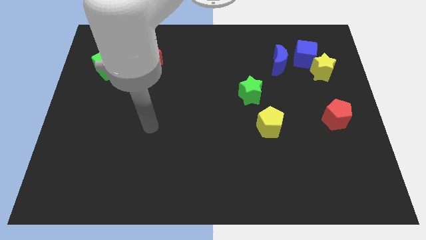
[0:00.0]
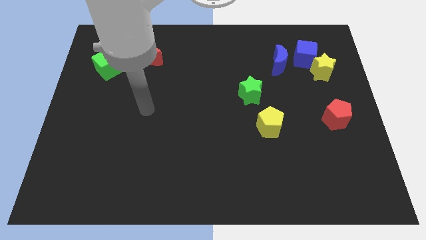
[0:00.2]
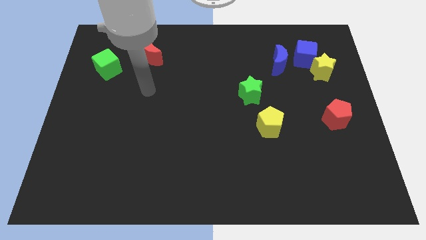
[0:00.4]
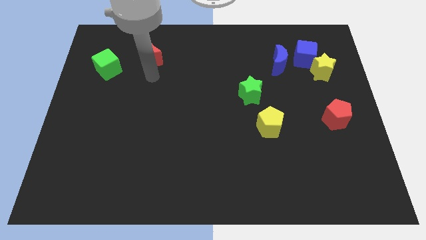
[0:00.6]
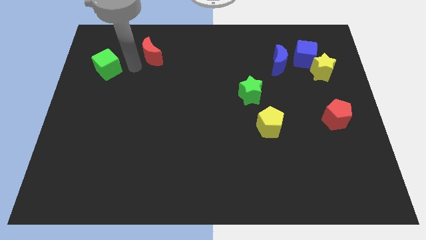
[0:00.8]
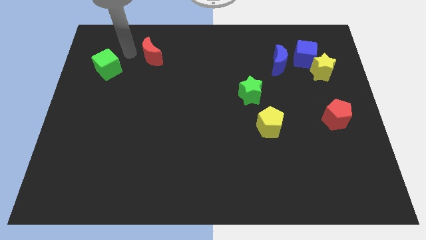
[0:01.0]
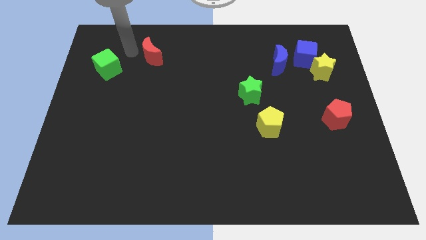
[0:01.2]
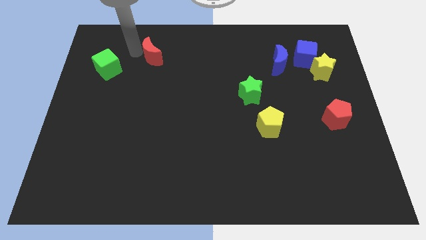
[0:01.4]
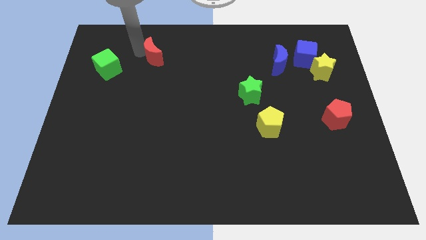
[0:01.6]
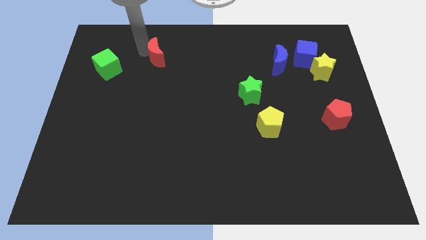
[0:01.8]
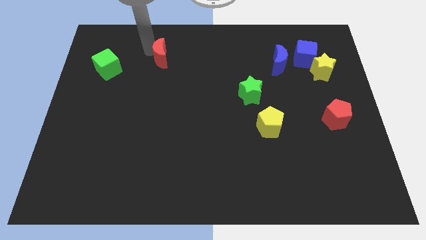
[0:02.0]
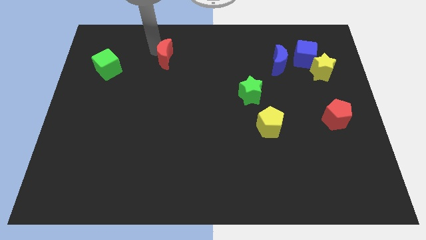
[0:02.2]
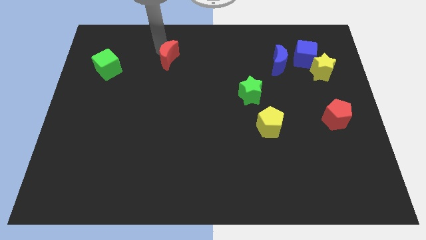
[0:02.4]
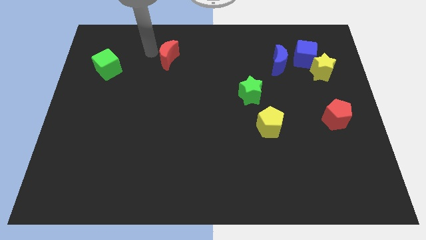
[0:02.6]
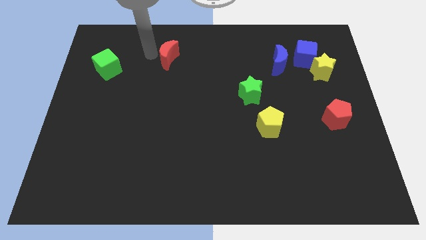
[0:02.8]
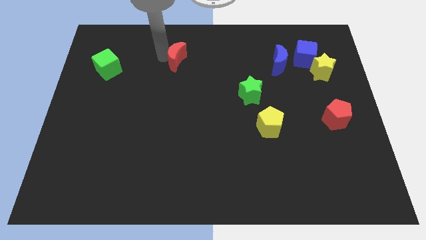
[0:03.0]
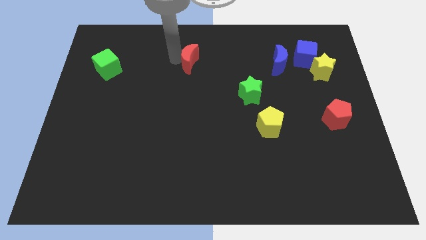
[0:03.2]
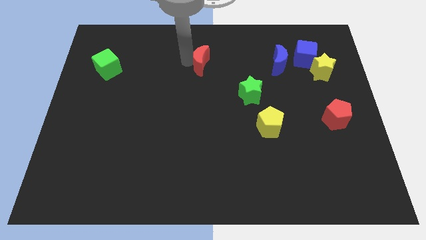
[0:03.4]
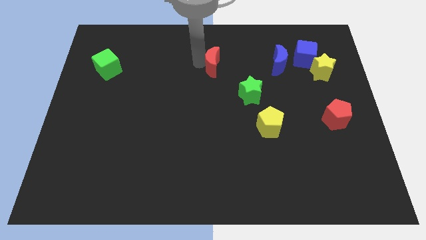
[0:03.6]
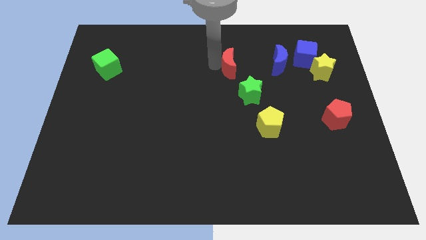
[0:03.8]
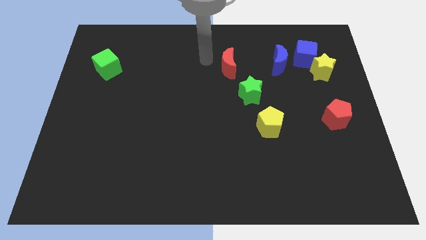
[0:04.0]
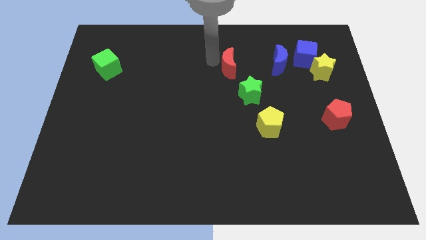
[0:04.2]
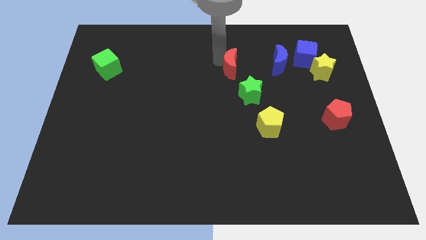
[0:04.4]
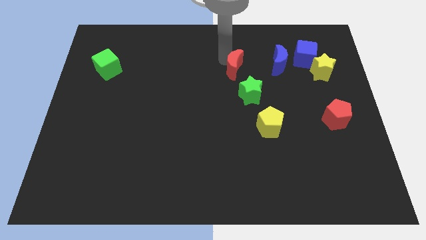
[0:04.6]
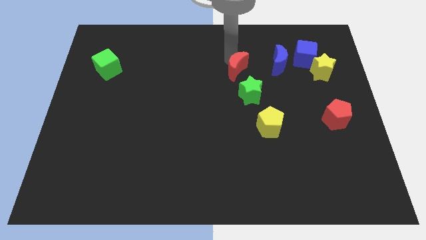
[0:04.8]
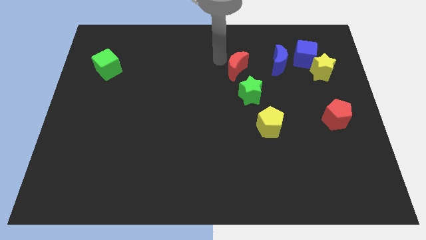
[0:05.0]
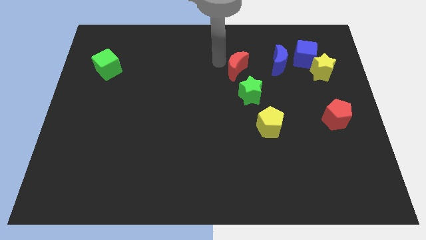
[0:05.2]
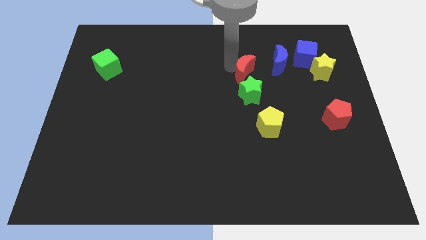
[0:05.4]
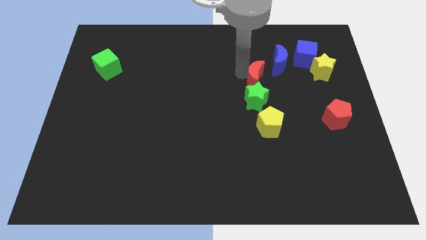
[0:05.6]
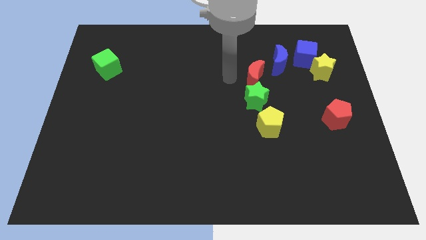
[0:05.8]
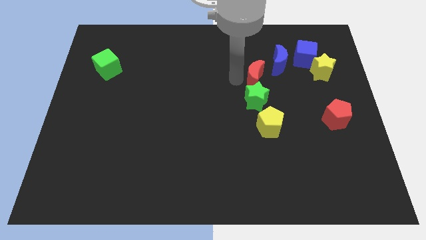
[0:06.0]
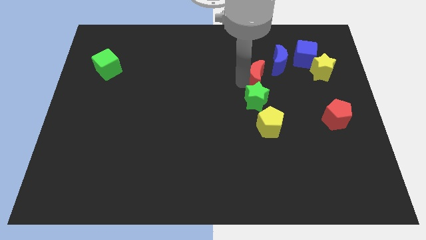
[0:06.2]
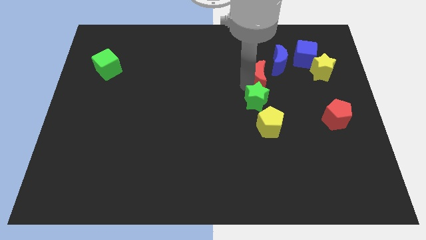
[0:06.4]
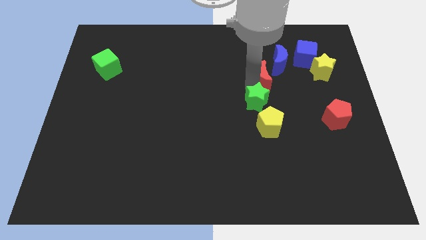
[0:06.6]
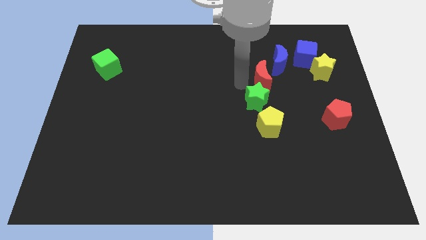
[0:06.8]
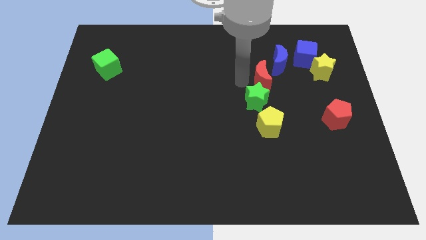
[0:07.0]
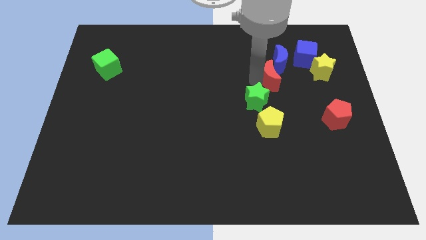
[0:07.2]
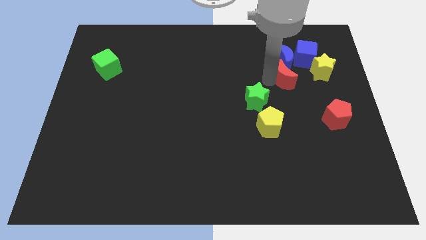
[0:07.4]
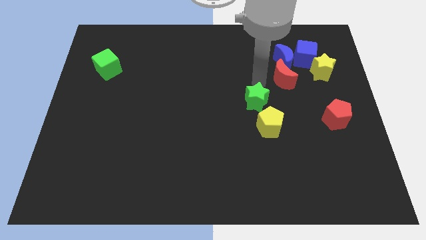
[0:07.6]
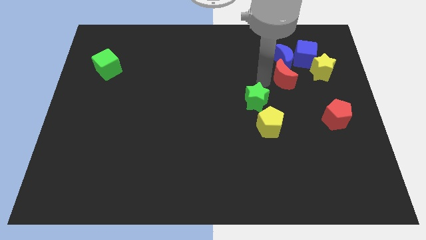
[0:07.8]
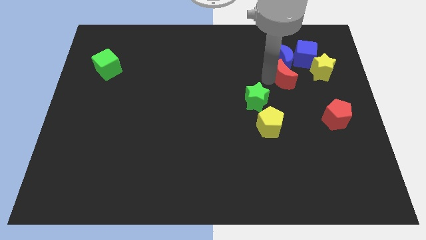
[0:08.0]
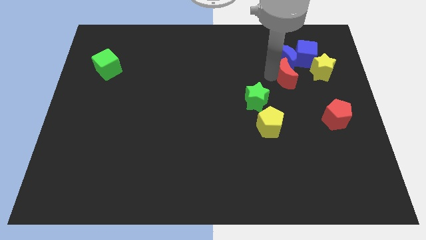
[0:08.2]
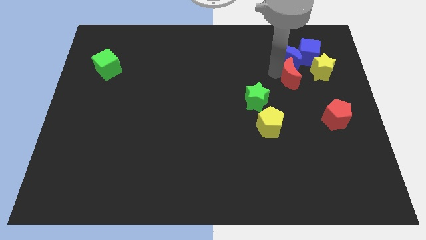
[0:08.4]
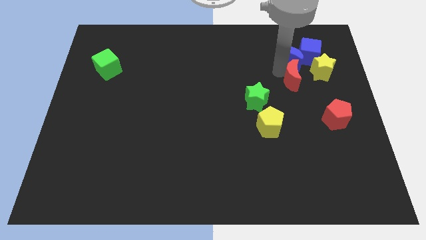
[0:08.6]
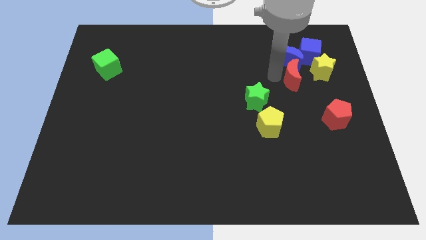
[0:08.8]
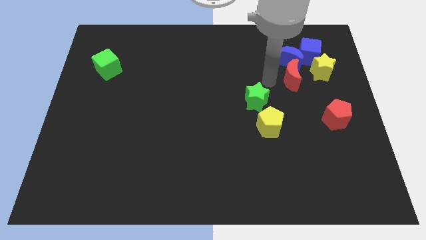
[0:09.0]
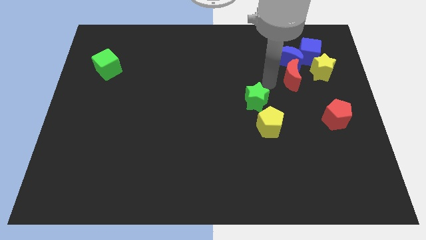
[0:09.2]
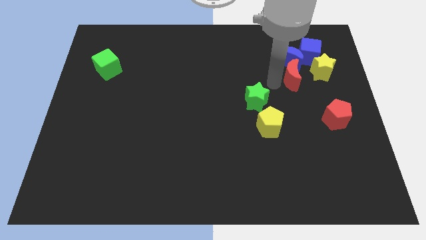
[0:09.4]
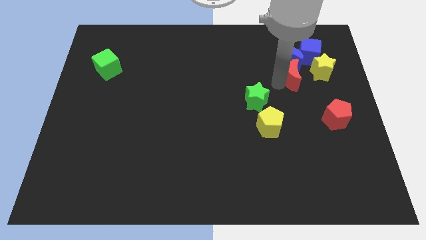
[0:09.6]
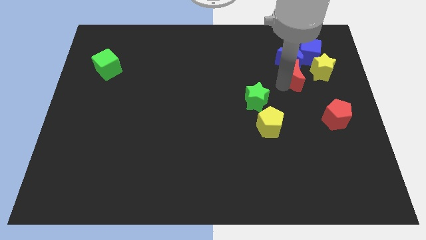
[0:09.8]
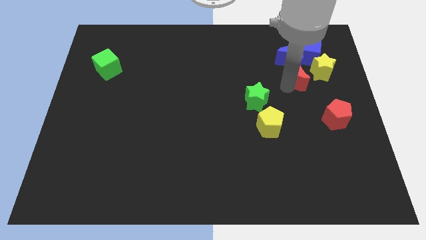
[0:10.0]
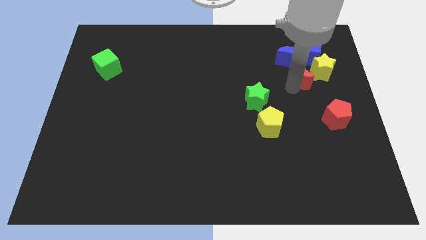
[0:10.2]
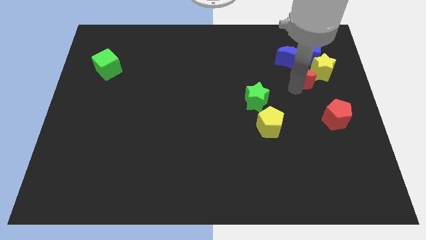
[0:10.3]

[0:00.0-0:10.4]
move the red moon next to the yellow star

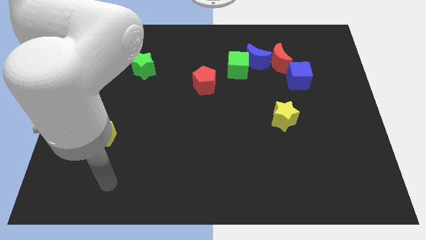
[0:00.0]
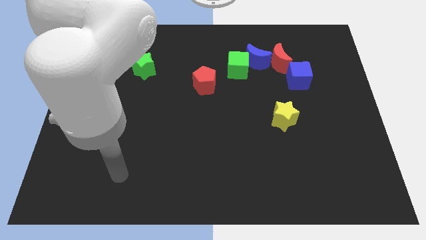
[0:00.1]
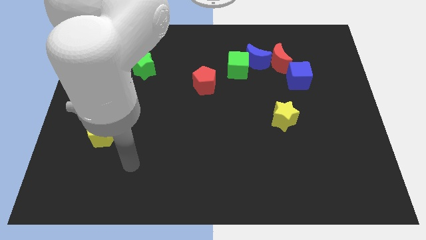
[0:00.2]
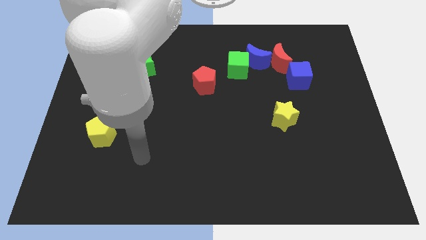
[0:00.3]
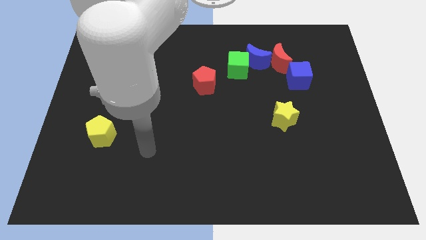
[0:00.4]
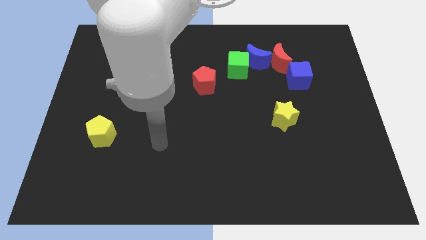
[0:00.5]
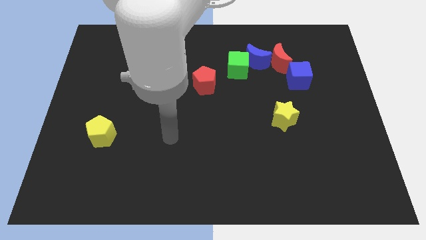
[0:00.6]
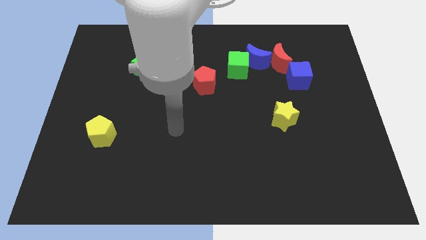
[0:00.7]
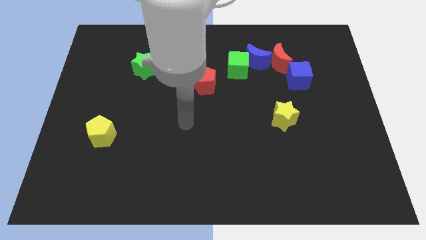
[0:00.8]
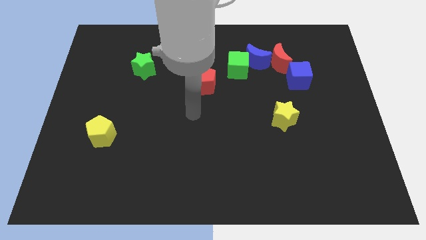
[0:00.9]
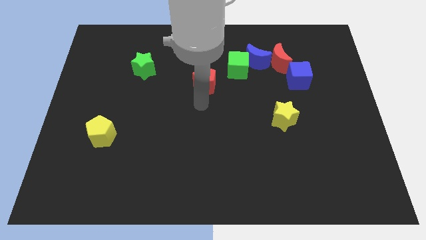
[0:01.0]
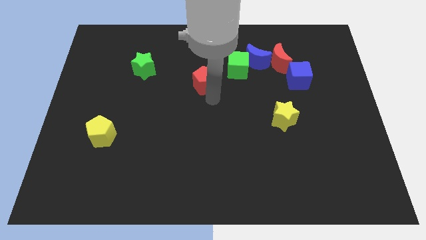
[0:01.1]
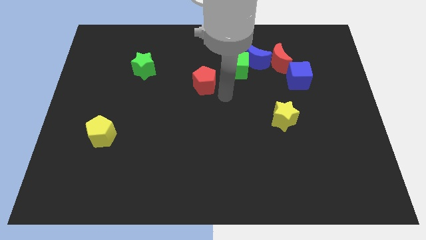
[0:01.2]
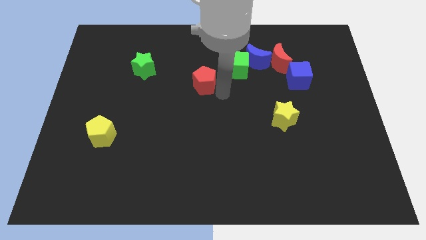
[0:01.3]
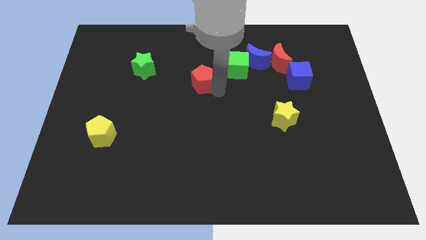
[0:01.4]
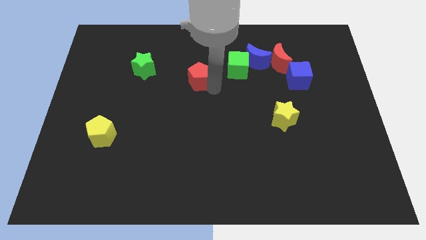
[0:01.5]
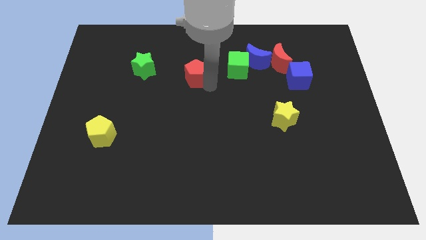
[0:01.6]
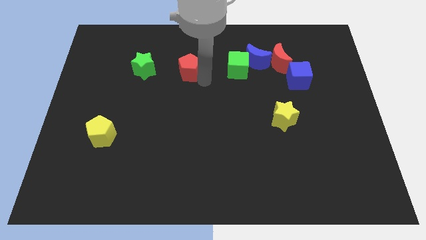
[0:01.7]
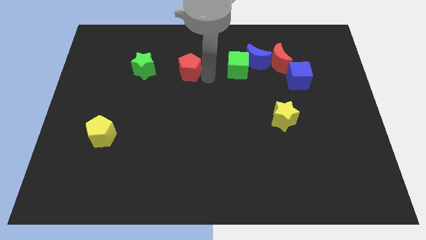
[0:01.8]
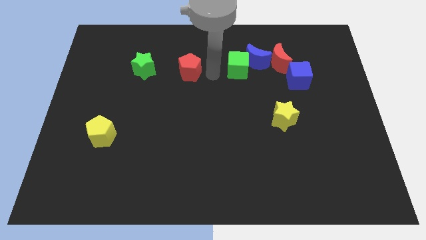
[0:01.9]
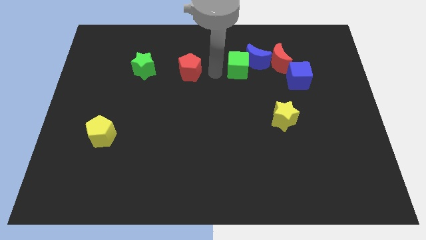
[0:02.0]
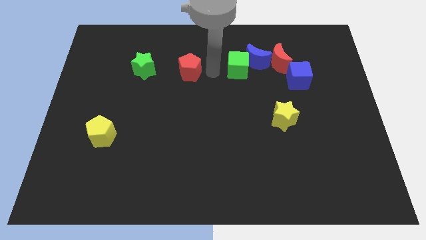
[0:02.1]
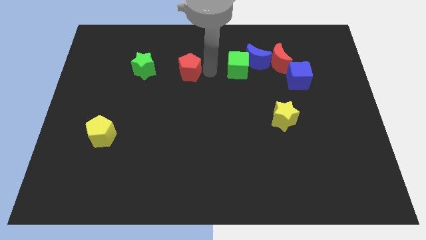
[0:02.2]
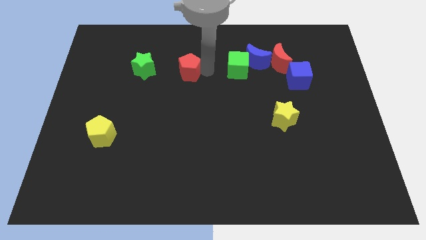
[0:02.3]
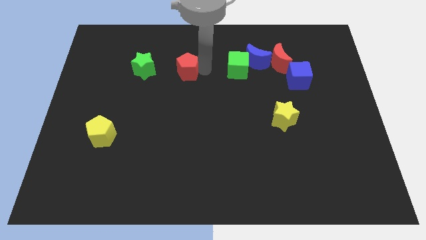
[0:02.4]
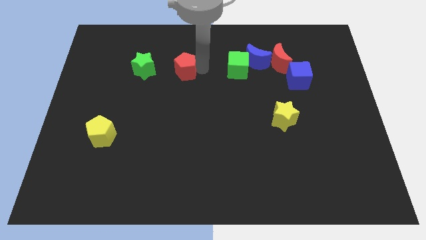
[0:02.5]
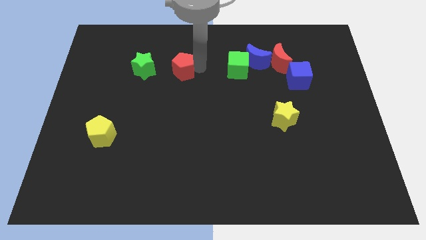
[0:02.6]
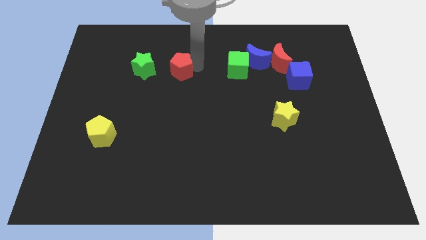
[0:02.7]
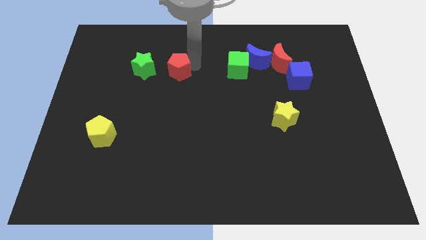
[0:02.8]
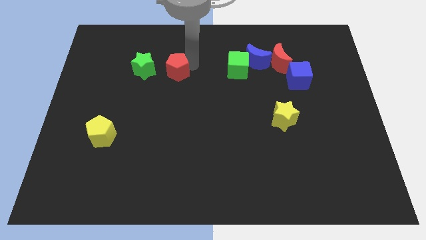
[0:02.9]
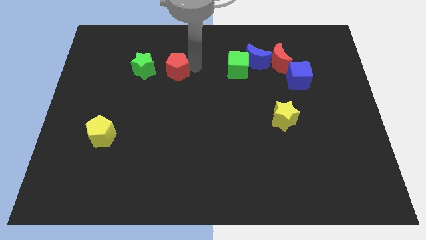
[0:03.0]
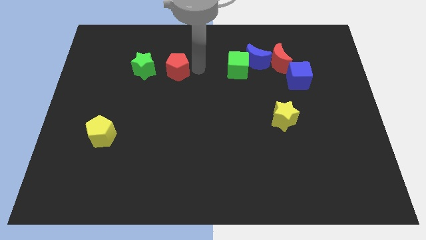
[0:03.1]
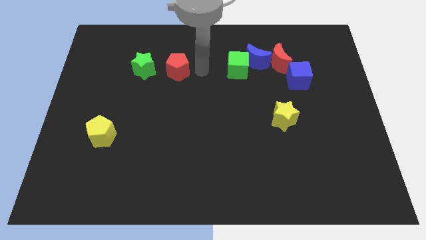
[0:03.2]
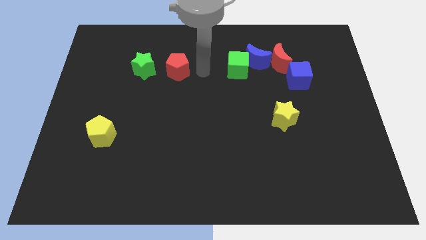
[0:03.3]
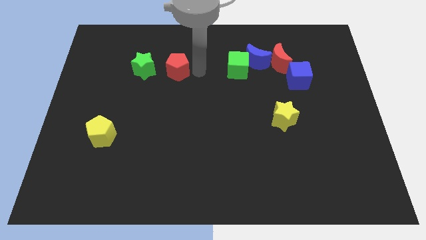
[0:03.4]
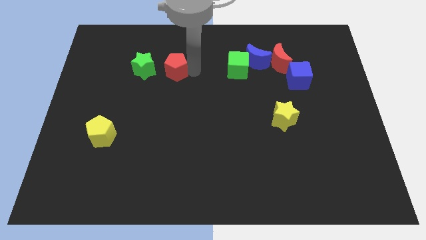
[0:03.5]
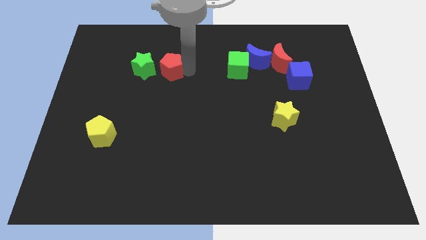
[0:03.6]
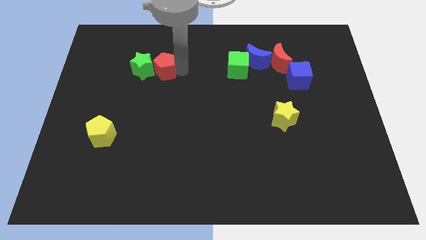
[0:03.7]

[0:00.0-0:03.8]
push the red pentagon to the green star
